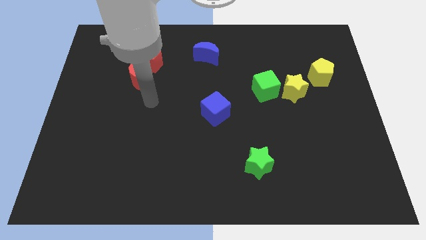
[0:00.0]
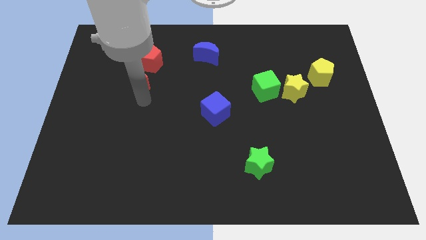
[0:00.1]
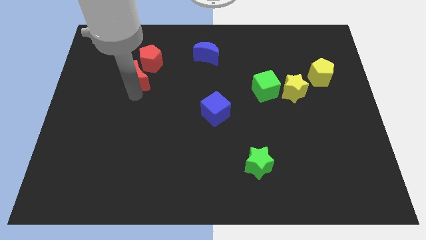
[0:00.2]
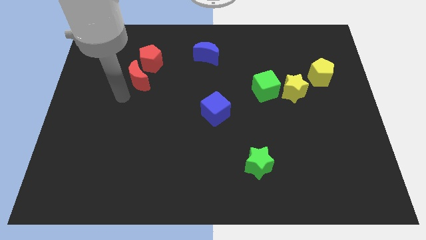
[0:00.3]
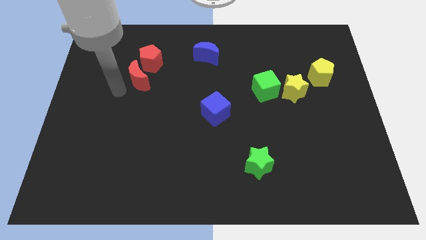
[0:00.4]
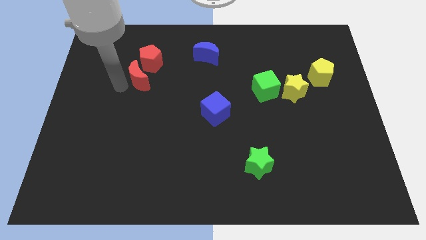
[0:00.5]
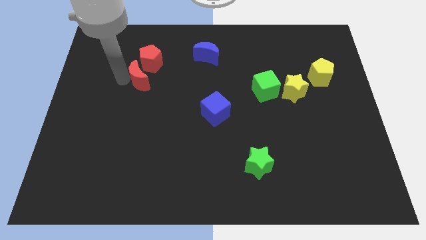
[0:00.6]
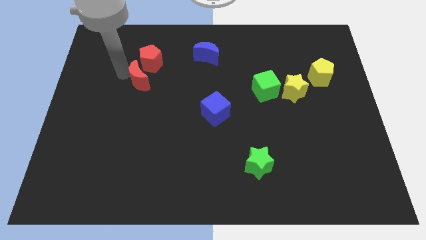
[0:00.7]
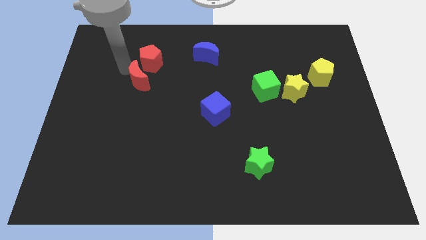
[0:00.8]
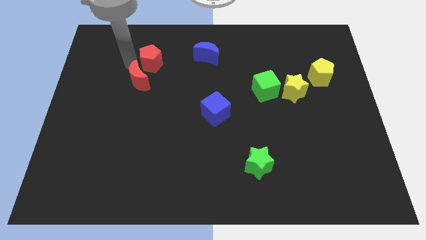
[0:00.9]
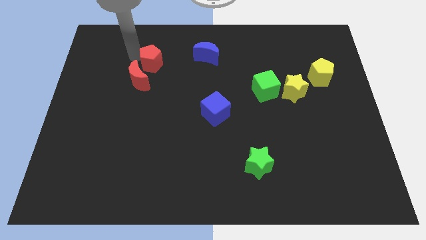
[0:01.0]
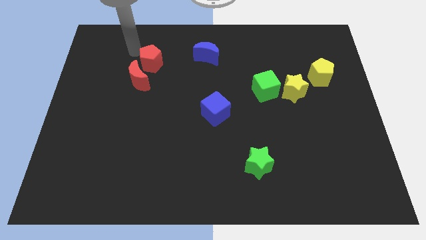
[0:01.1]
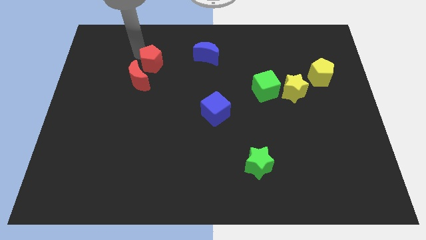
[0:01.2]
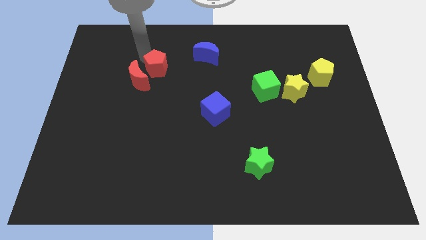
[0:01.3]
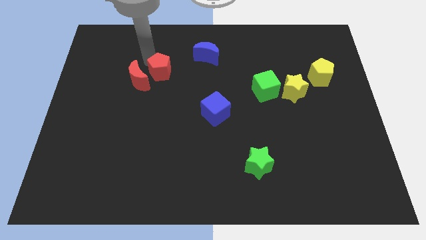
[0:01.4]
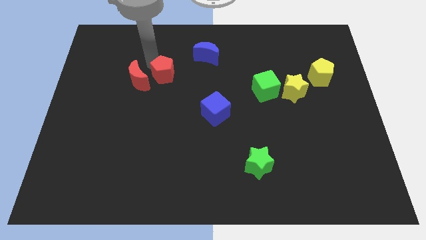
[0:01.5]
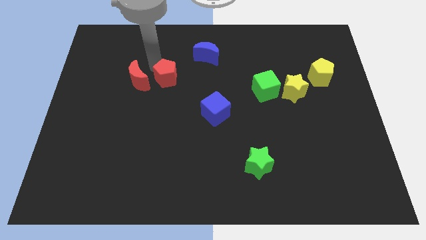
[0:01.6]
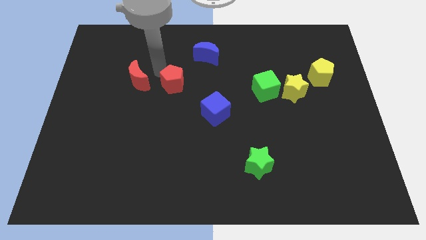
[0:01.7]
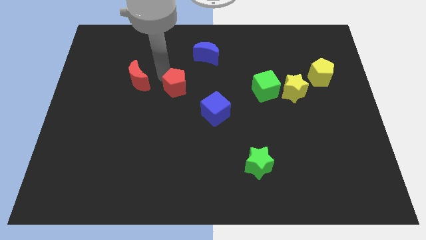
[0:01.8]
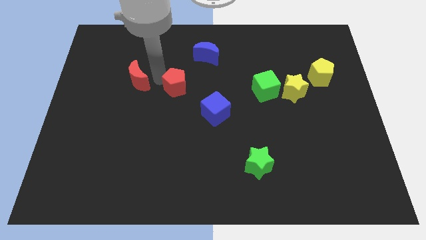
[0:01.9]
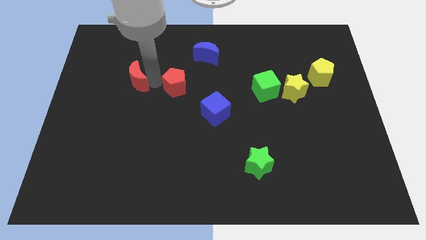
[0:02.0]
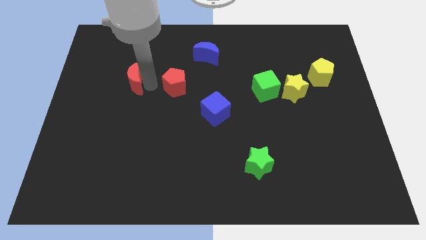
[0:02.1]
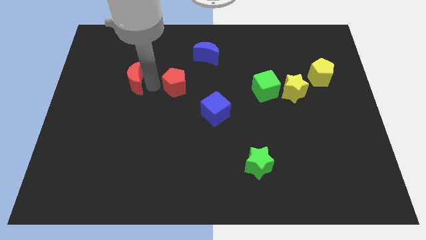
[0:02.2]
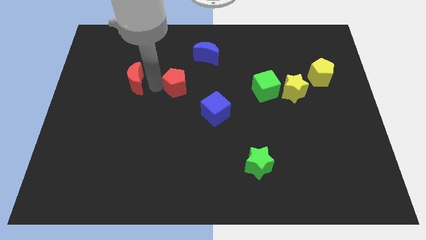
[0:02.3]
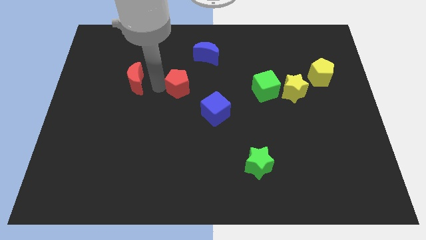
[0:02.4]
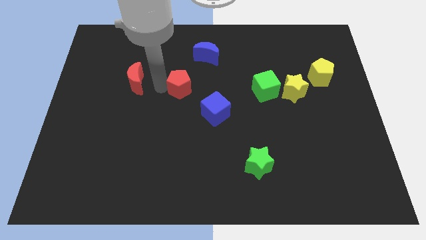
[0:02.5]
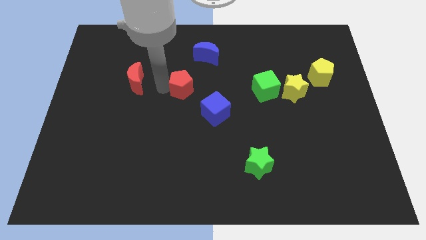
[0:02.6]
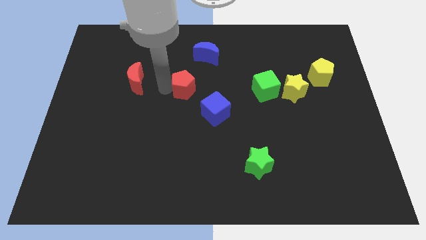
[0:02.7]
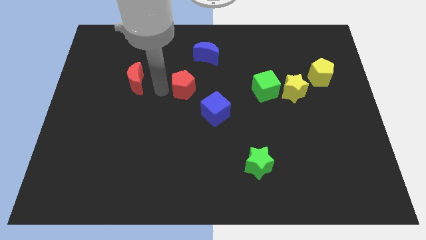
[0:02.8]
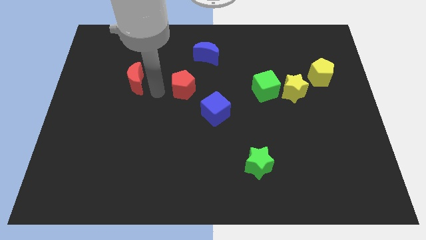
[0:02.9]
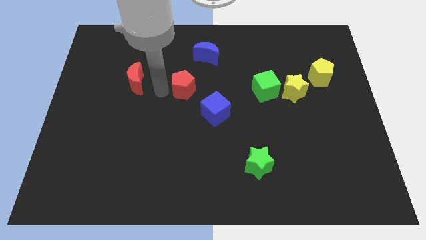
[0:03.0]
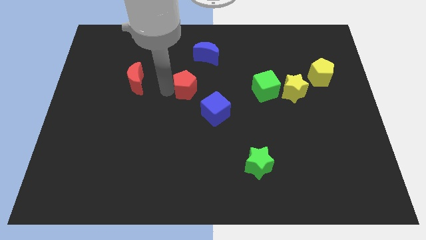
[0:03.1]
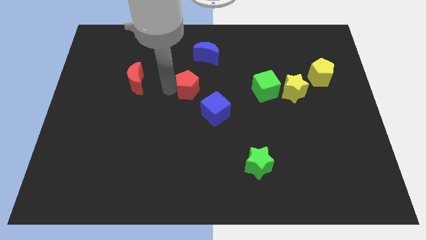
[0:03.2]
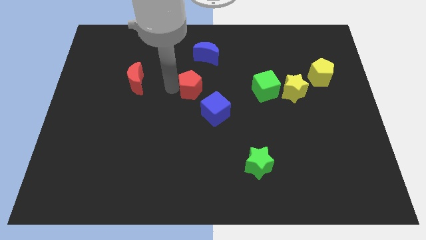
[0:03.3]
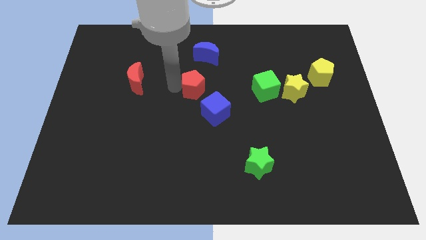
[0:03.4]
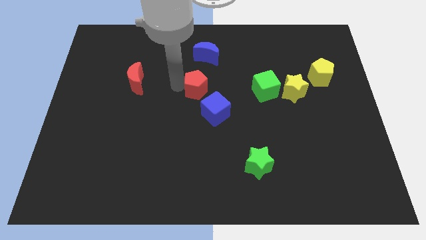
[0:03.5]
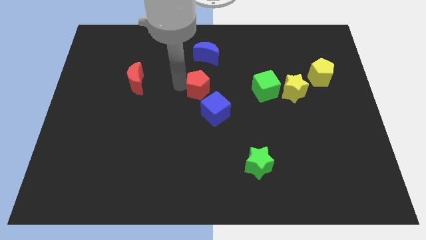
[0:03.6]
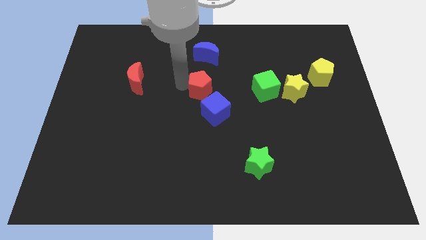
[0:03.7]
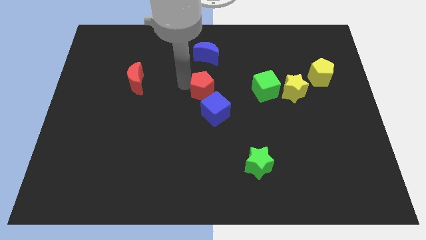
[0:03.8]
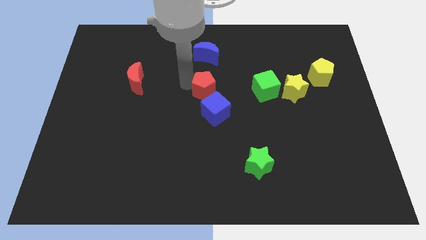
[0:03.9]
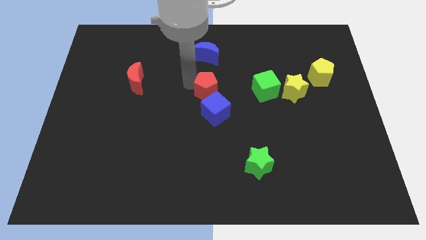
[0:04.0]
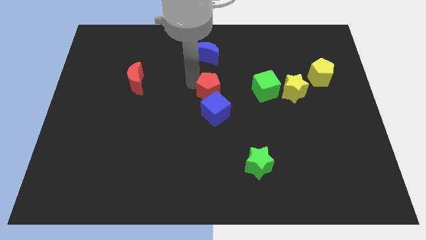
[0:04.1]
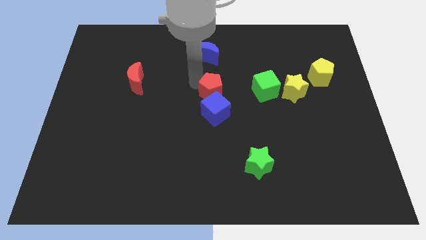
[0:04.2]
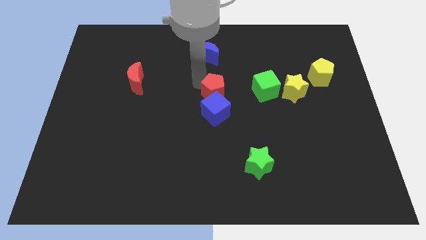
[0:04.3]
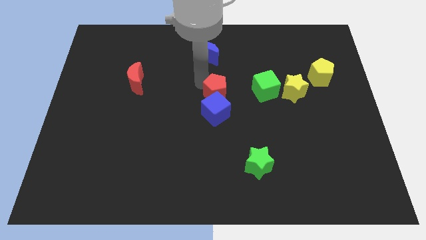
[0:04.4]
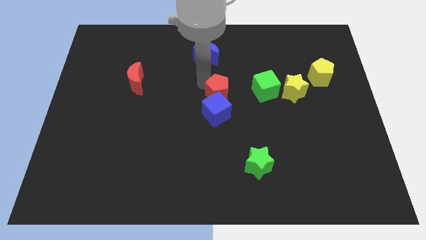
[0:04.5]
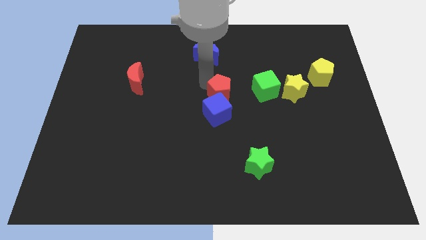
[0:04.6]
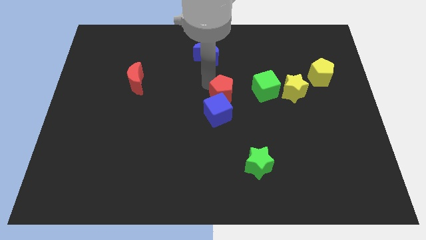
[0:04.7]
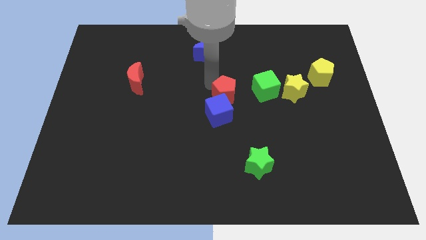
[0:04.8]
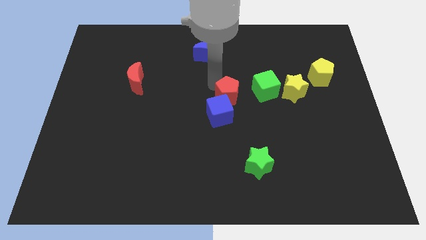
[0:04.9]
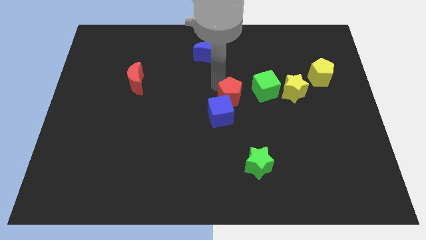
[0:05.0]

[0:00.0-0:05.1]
put the red pentagon to the bottom left of the green cube

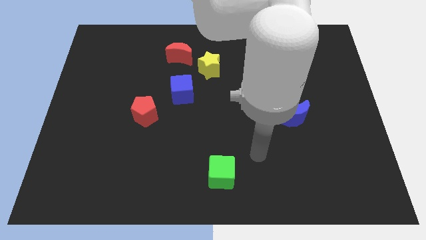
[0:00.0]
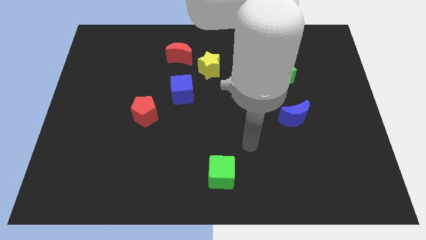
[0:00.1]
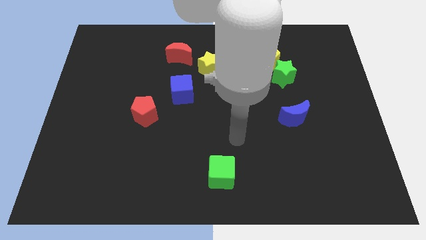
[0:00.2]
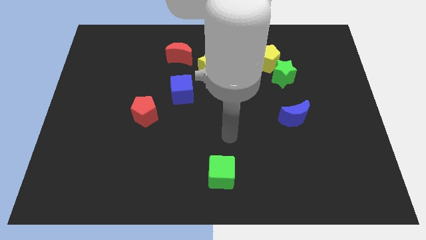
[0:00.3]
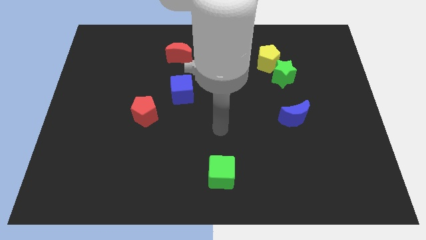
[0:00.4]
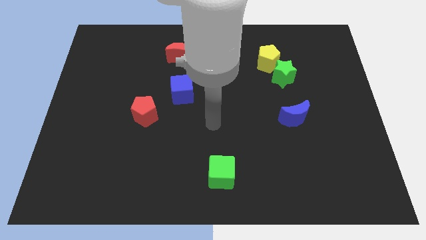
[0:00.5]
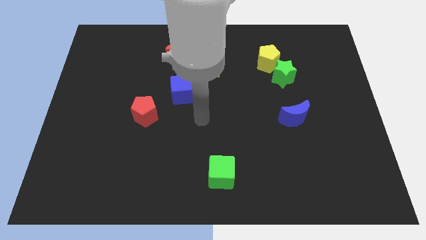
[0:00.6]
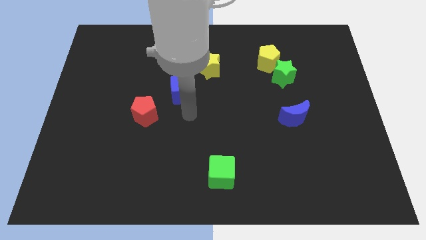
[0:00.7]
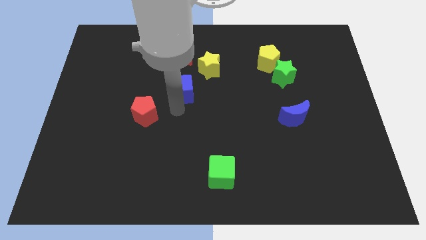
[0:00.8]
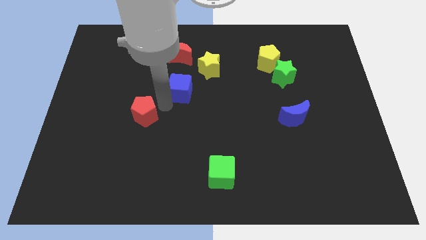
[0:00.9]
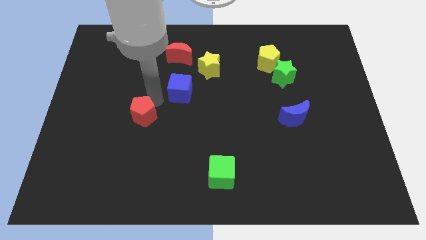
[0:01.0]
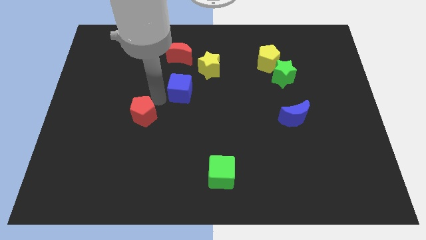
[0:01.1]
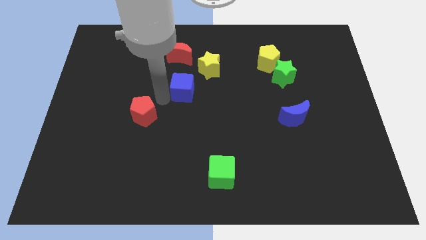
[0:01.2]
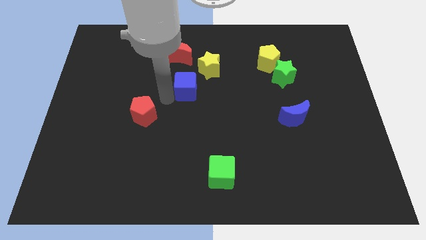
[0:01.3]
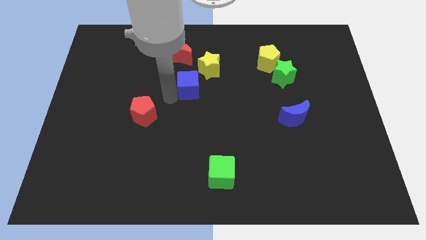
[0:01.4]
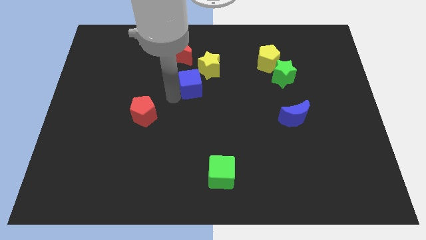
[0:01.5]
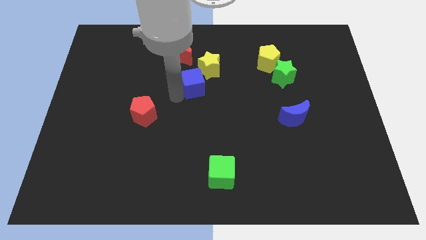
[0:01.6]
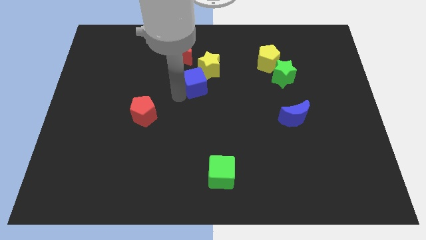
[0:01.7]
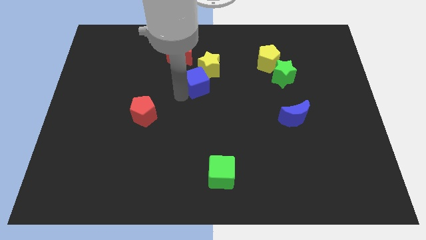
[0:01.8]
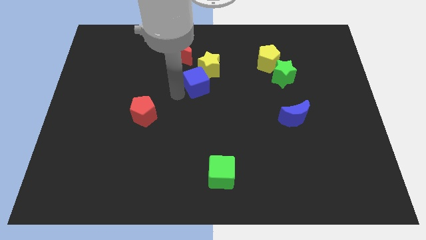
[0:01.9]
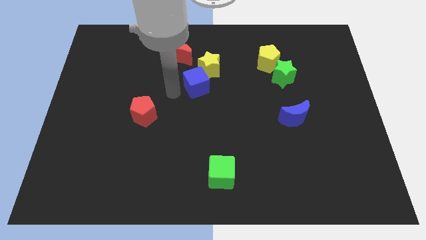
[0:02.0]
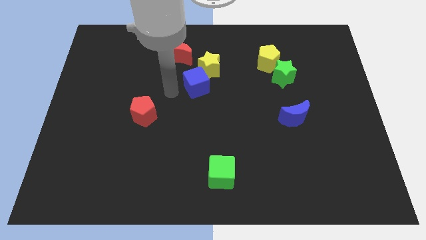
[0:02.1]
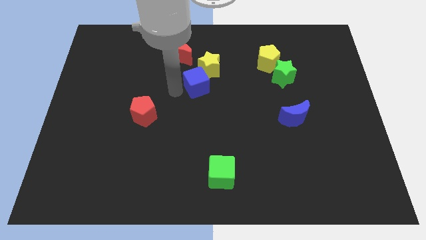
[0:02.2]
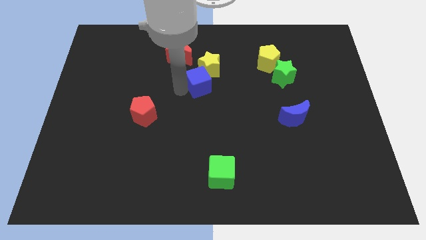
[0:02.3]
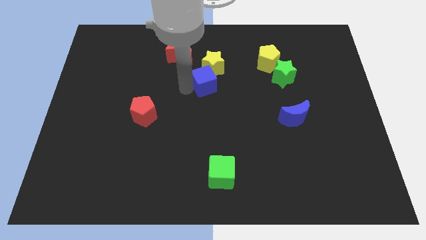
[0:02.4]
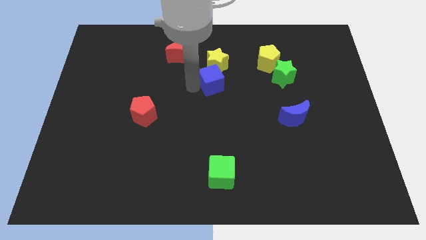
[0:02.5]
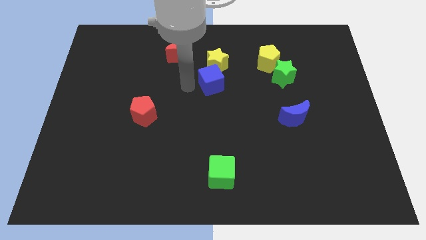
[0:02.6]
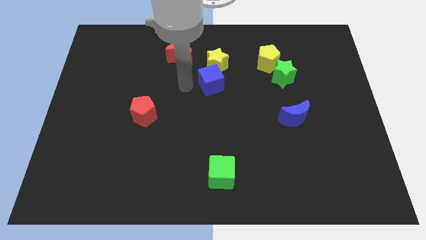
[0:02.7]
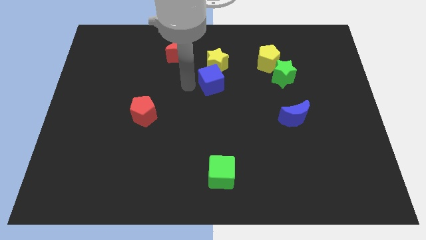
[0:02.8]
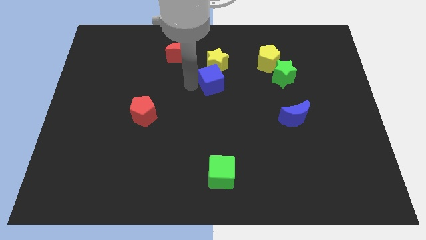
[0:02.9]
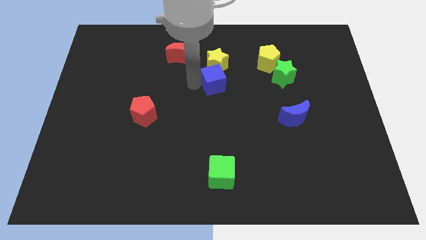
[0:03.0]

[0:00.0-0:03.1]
push the blue cube to the bottom right side of the yellow star

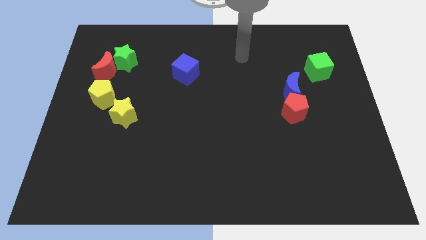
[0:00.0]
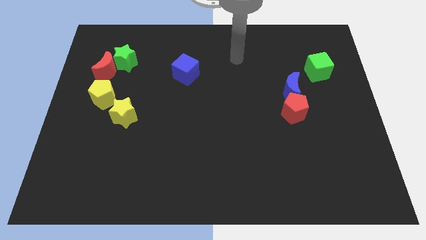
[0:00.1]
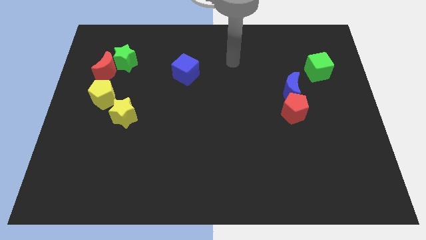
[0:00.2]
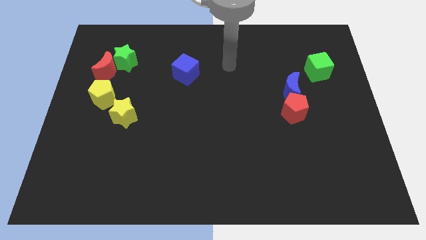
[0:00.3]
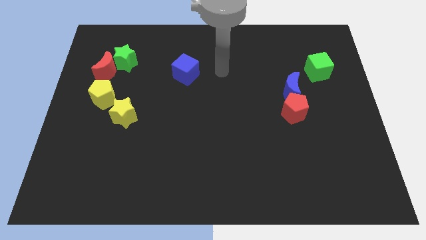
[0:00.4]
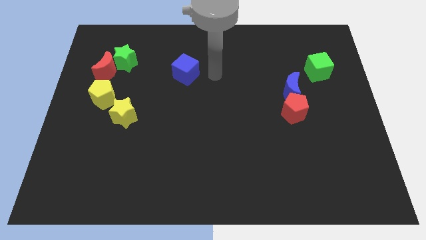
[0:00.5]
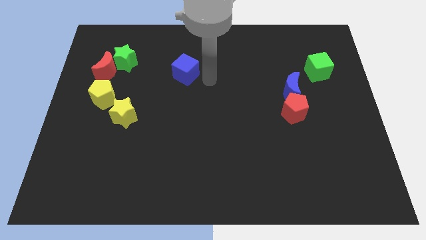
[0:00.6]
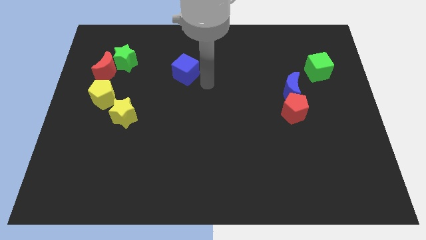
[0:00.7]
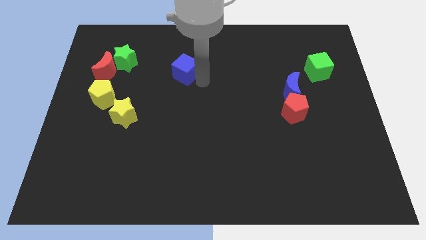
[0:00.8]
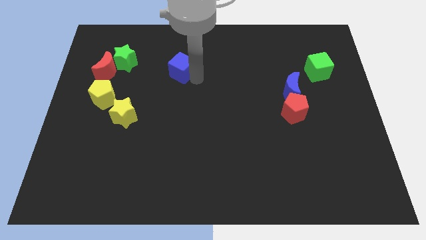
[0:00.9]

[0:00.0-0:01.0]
push the blue cube to the right side of the green star
